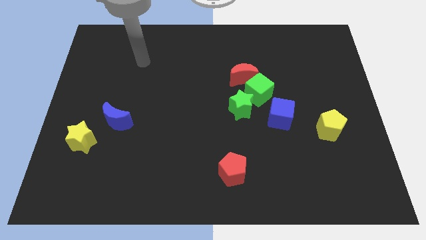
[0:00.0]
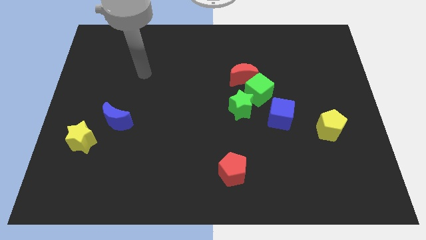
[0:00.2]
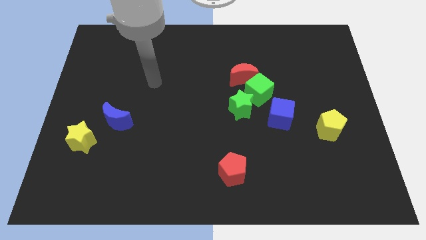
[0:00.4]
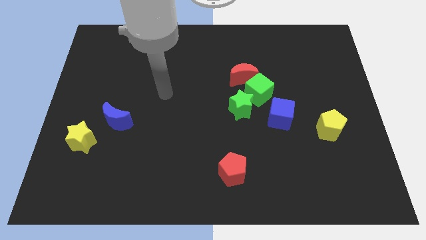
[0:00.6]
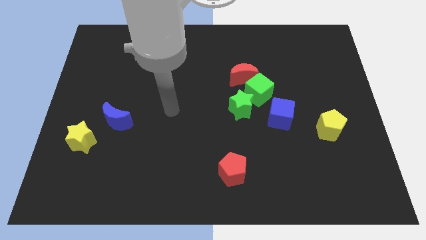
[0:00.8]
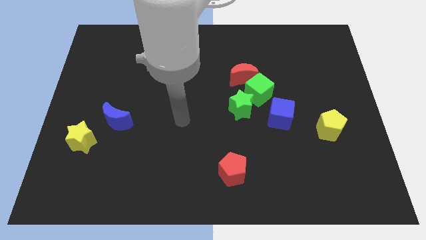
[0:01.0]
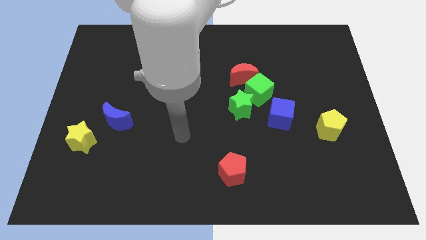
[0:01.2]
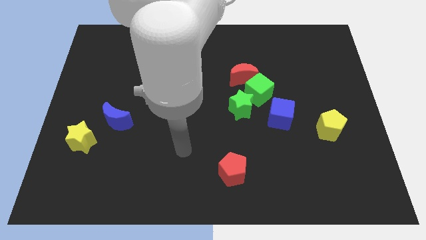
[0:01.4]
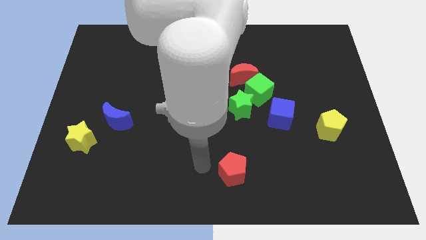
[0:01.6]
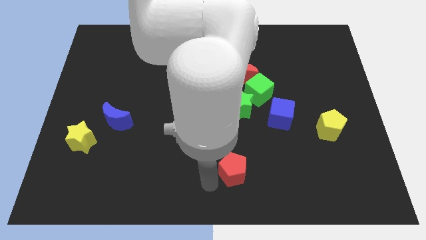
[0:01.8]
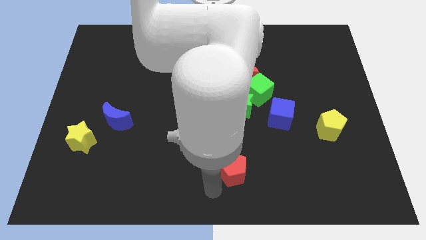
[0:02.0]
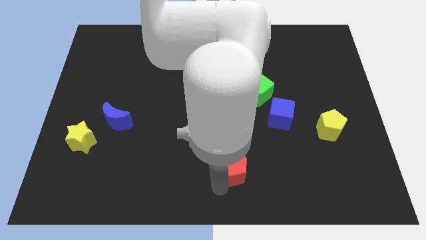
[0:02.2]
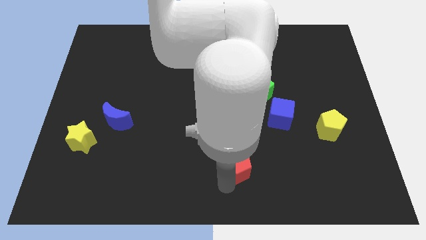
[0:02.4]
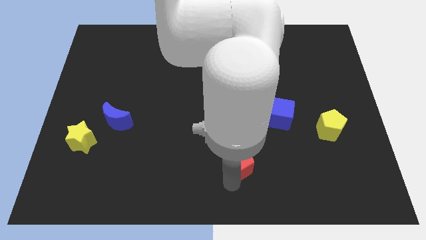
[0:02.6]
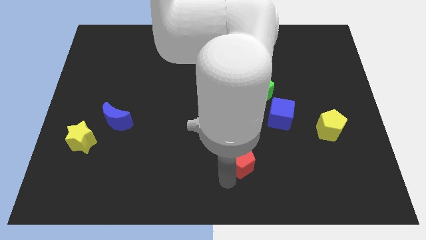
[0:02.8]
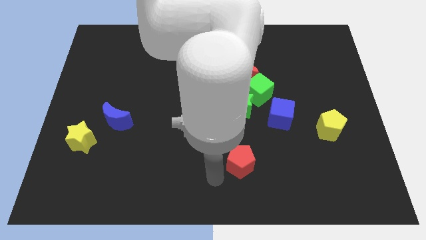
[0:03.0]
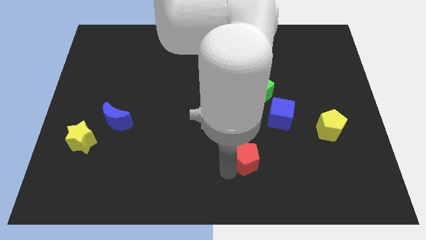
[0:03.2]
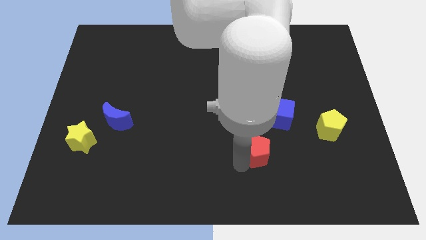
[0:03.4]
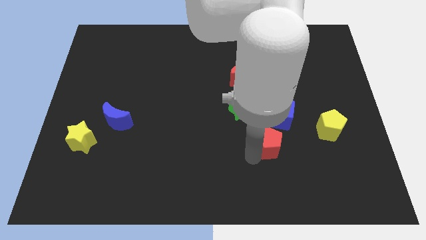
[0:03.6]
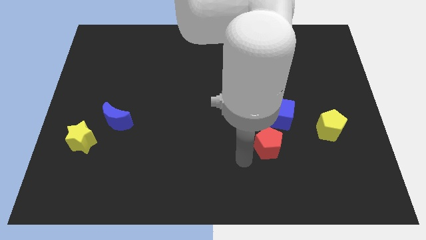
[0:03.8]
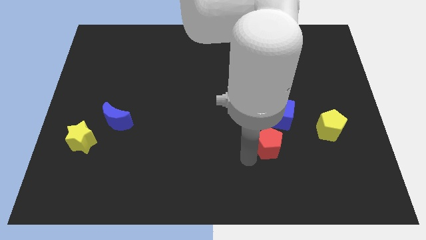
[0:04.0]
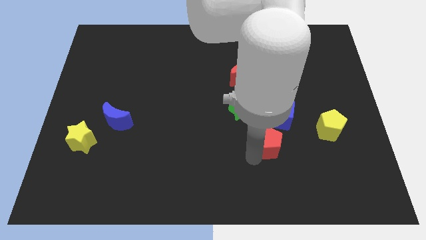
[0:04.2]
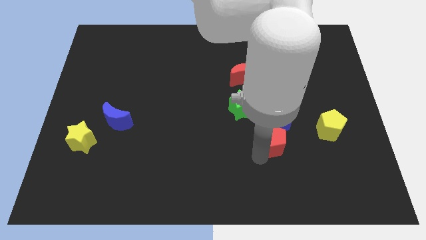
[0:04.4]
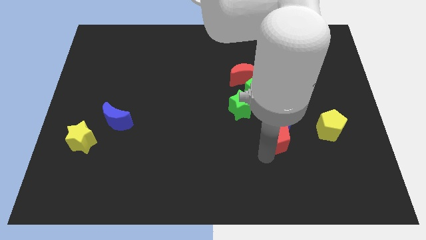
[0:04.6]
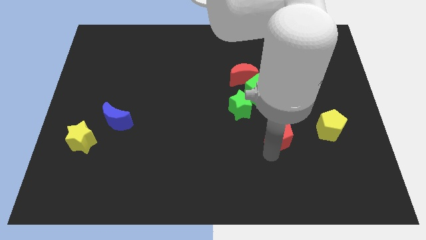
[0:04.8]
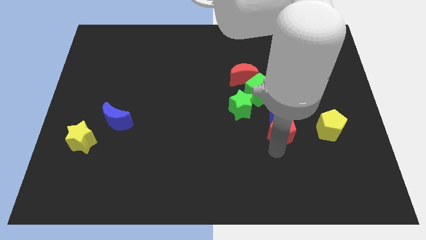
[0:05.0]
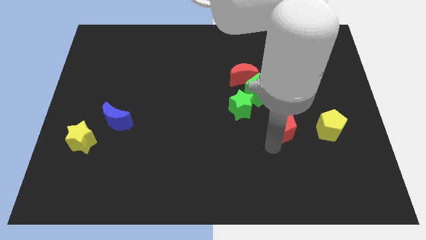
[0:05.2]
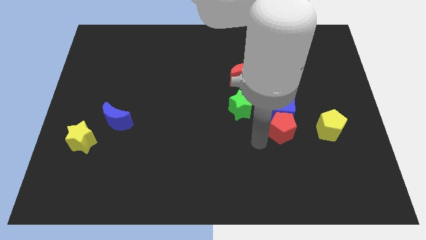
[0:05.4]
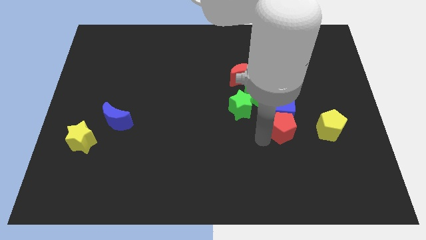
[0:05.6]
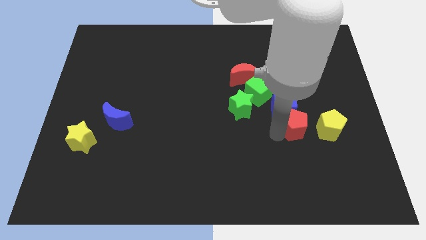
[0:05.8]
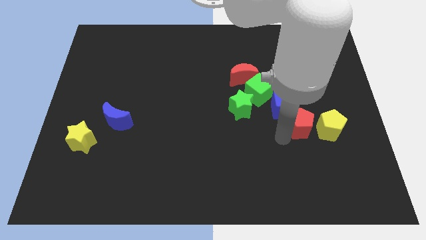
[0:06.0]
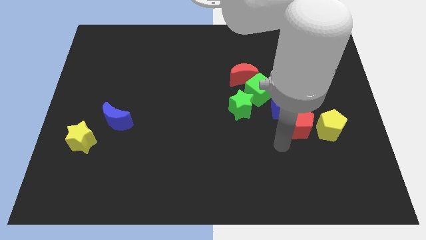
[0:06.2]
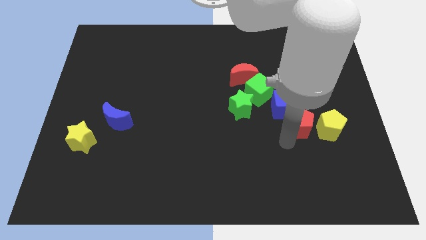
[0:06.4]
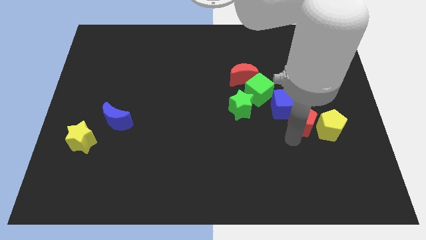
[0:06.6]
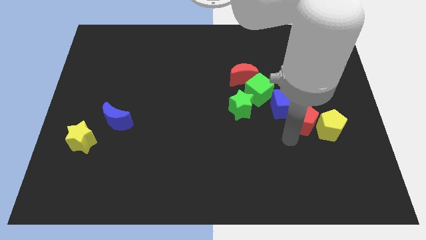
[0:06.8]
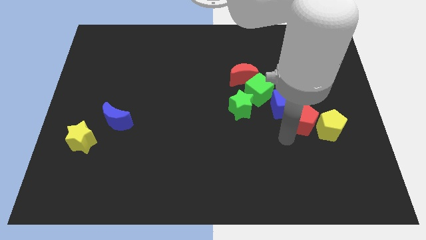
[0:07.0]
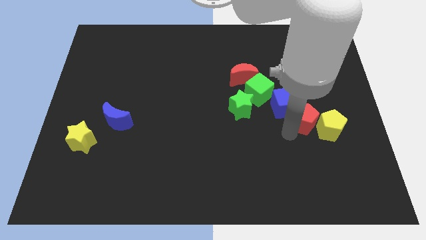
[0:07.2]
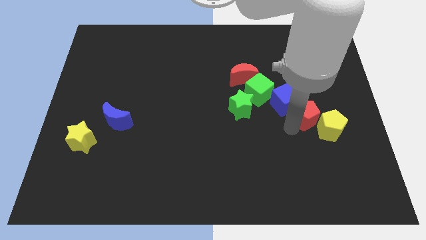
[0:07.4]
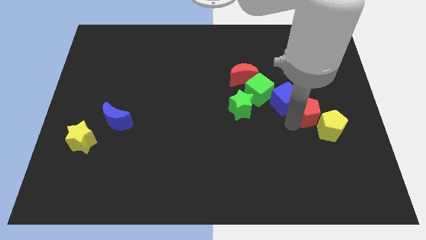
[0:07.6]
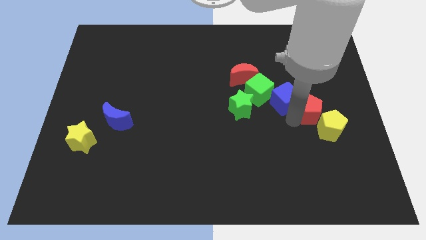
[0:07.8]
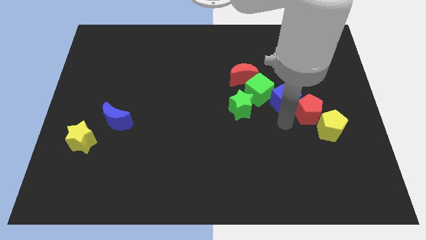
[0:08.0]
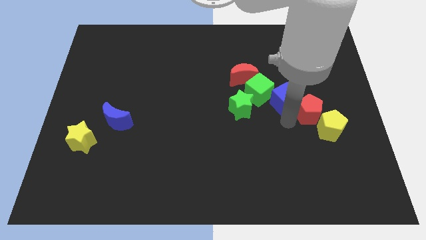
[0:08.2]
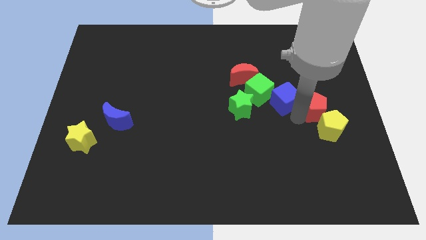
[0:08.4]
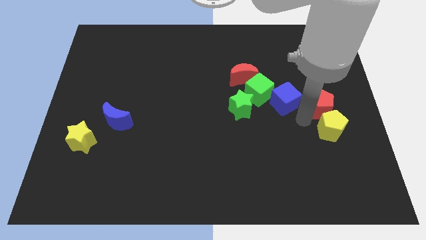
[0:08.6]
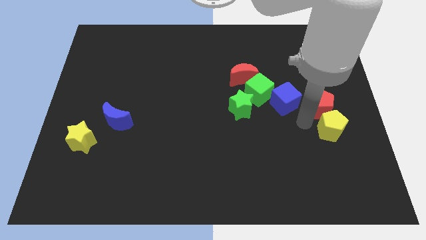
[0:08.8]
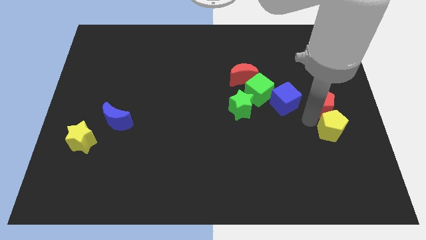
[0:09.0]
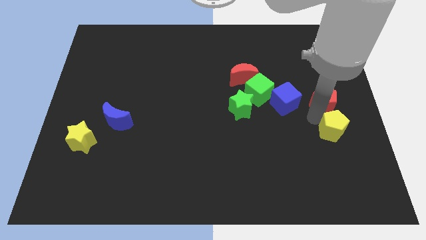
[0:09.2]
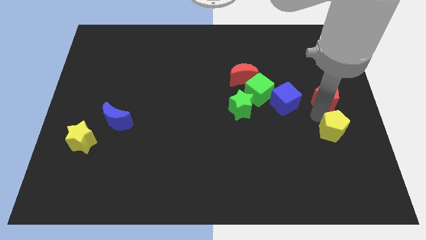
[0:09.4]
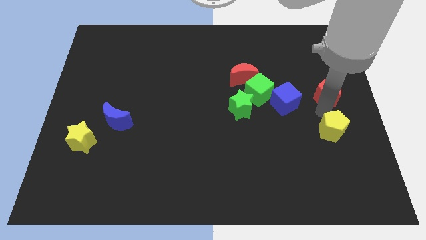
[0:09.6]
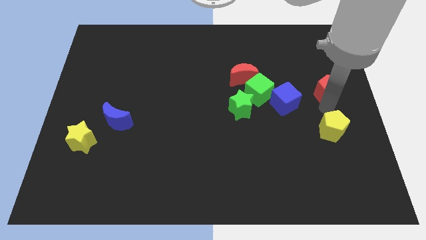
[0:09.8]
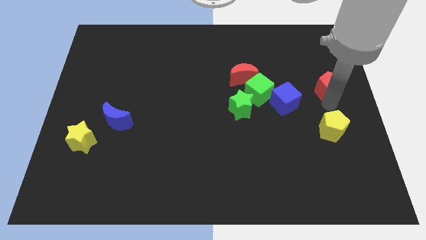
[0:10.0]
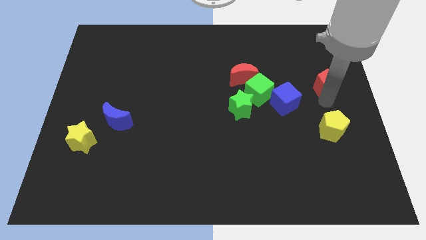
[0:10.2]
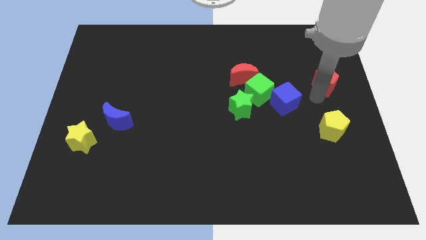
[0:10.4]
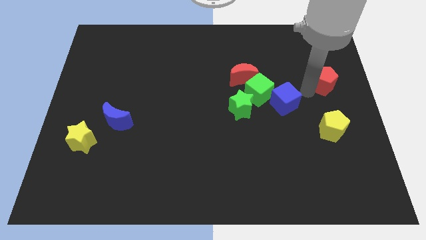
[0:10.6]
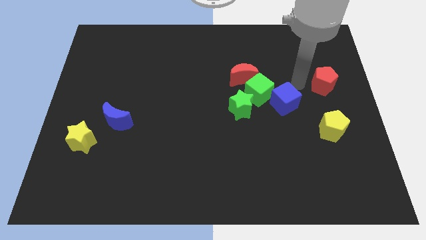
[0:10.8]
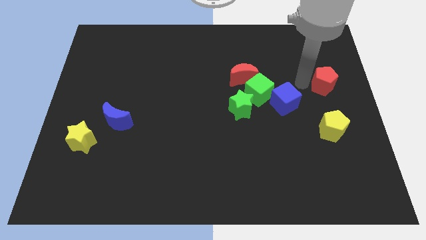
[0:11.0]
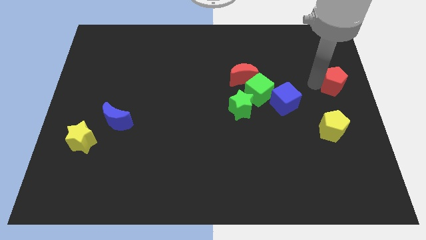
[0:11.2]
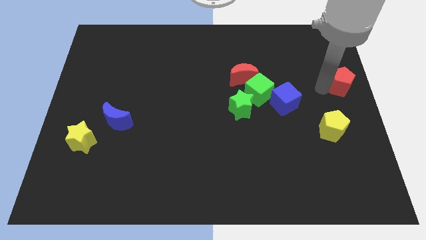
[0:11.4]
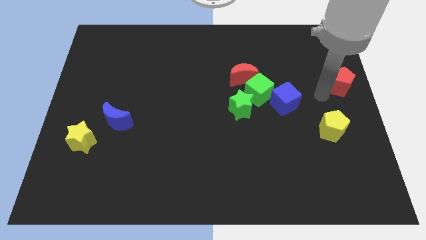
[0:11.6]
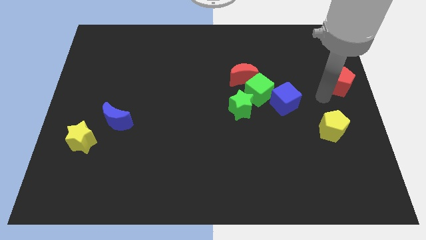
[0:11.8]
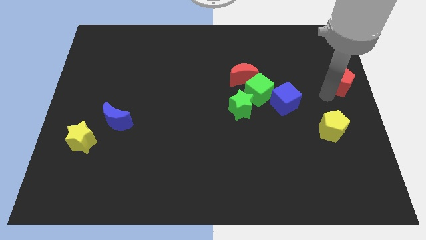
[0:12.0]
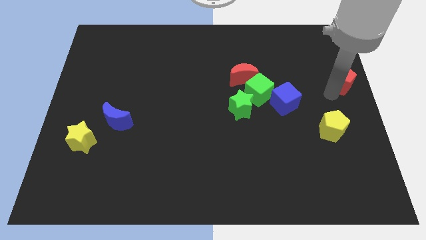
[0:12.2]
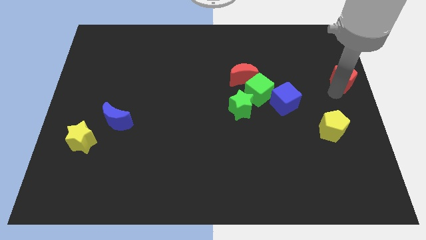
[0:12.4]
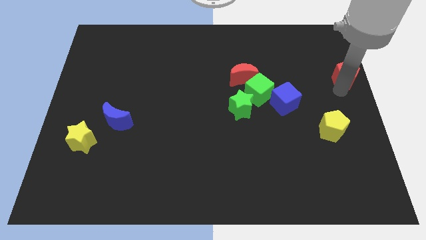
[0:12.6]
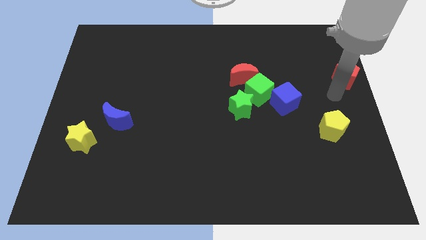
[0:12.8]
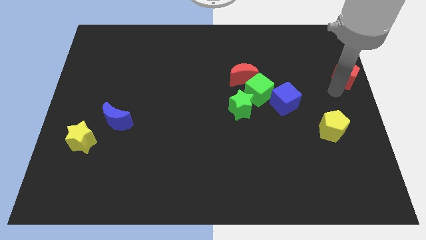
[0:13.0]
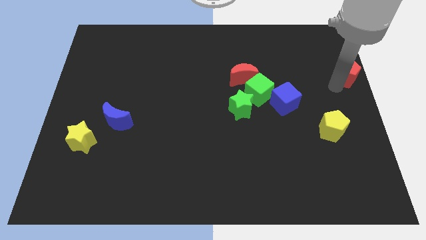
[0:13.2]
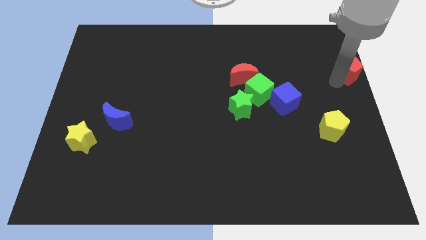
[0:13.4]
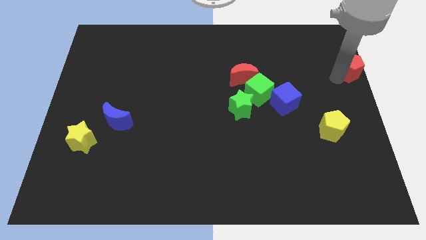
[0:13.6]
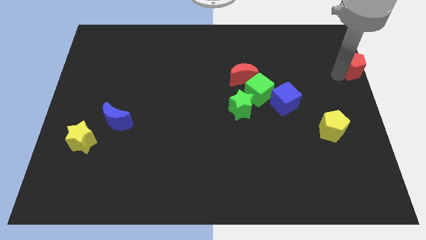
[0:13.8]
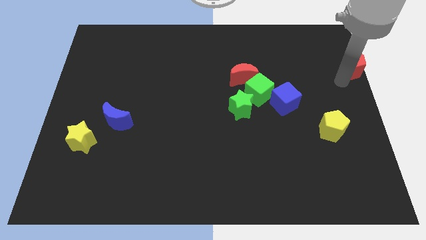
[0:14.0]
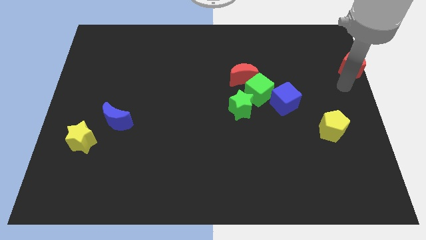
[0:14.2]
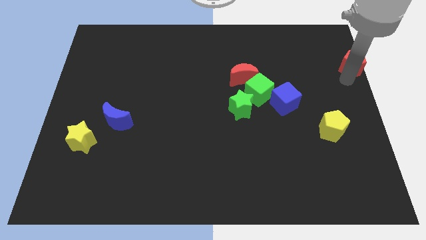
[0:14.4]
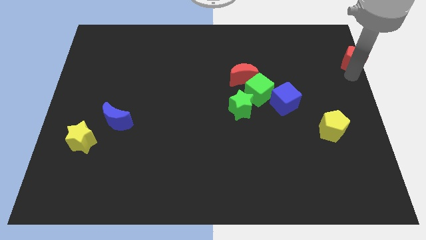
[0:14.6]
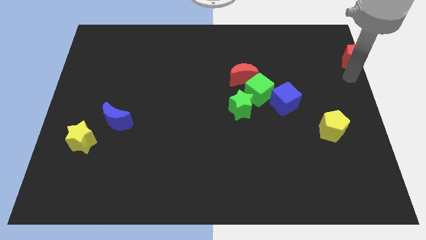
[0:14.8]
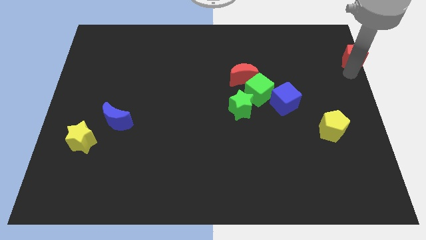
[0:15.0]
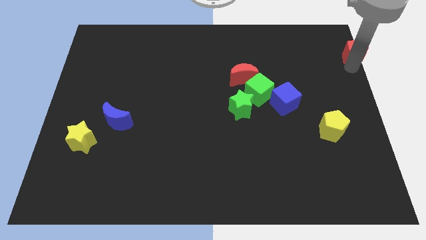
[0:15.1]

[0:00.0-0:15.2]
slide the red pentagon to the top right
